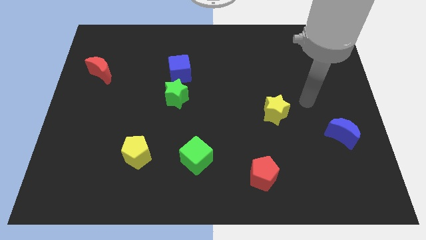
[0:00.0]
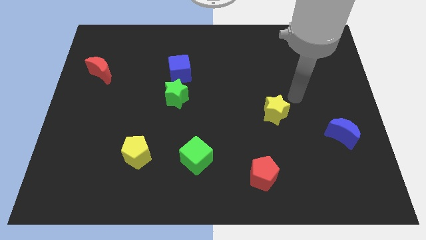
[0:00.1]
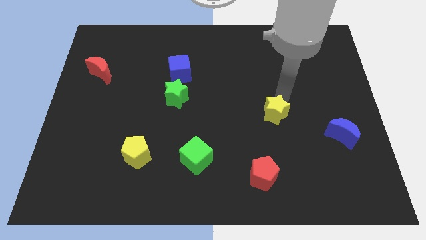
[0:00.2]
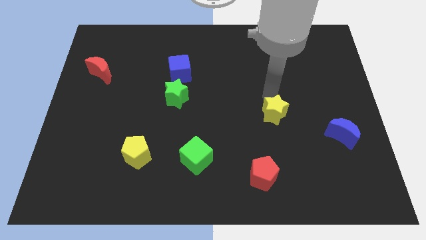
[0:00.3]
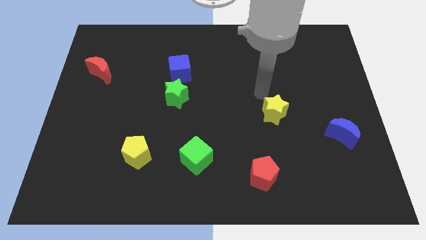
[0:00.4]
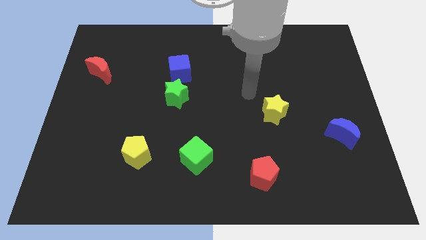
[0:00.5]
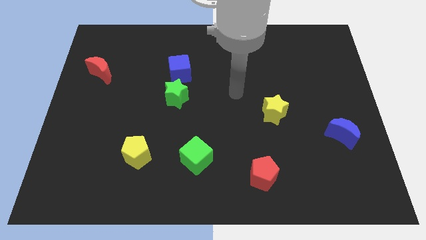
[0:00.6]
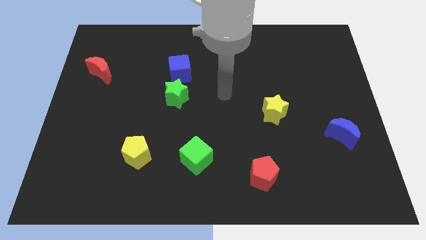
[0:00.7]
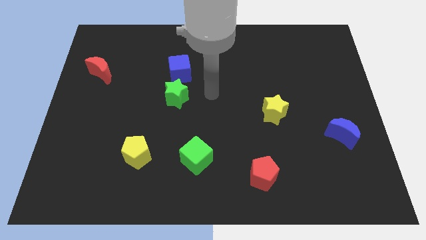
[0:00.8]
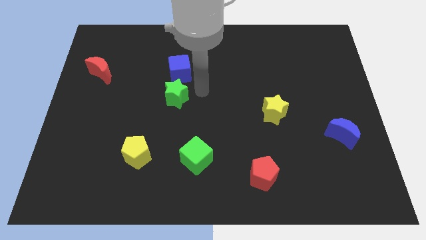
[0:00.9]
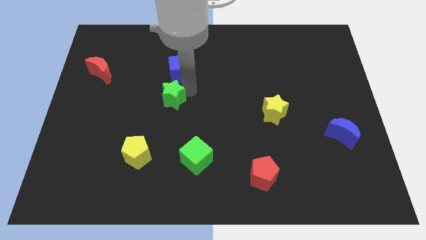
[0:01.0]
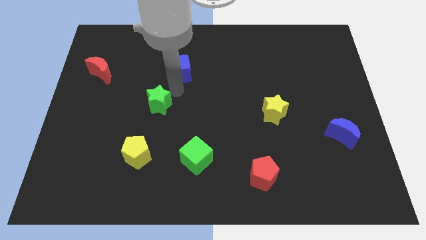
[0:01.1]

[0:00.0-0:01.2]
move the blue cube away from the green star

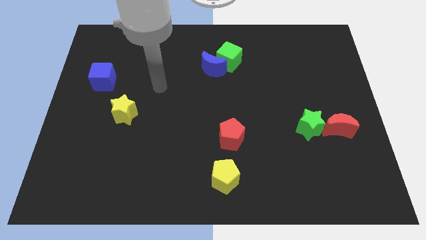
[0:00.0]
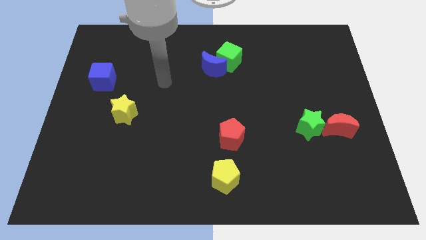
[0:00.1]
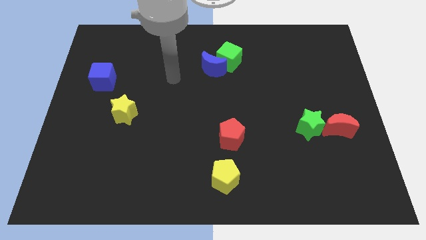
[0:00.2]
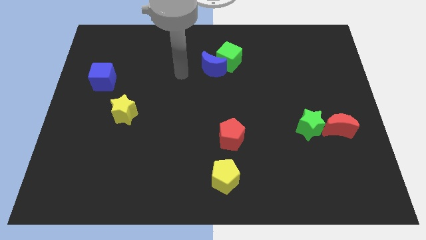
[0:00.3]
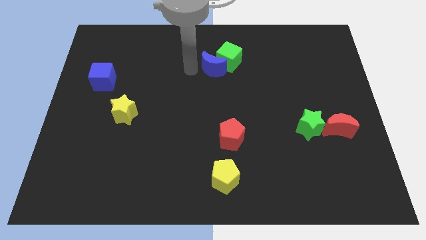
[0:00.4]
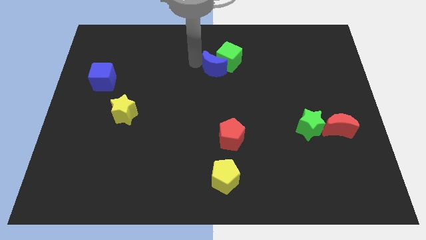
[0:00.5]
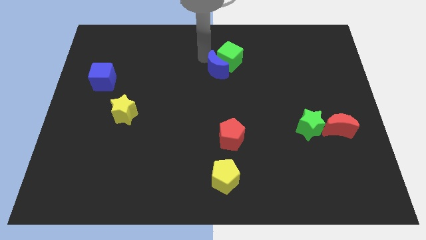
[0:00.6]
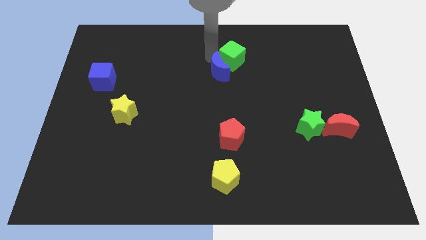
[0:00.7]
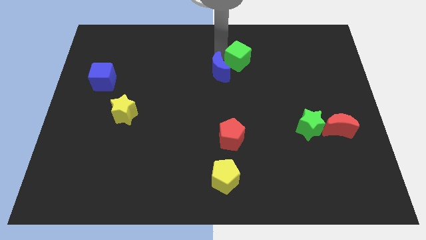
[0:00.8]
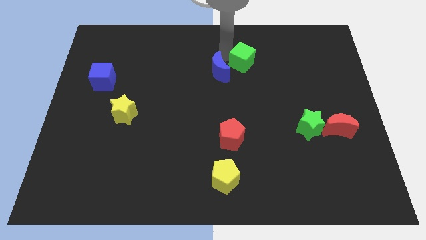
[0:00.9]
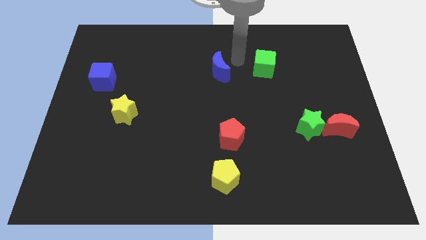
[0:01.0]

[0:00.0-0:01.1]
separate the blue moon from the green cube

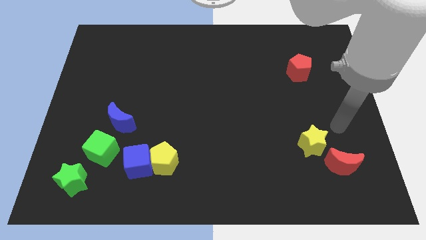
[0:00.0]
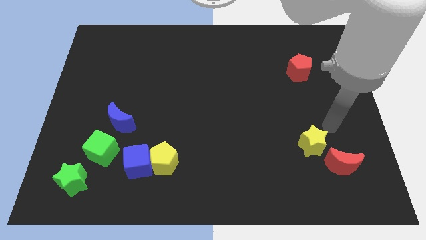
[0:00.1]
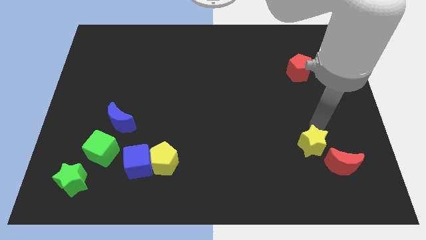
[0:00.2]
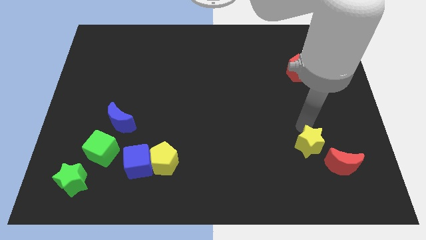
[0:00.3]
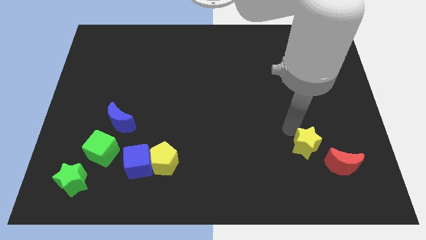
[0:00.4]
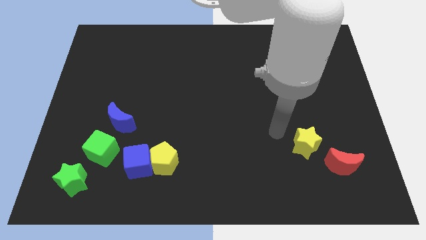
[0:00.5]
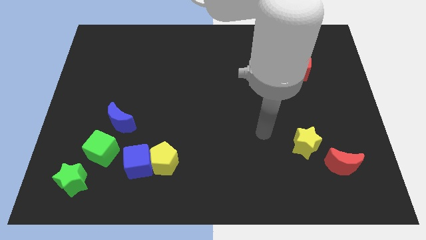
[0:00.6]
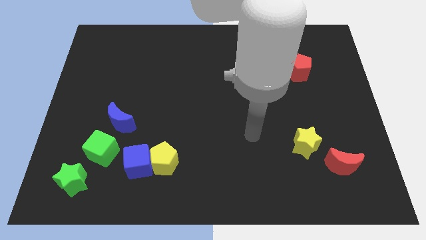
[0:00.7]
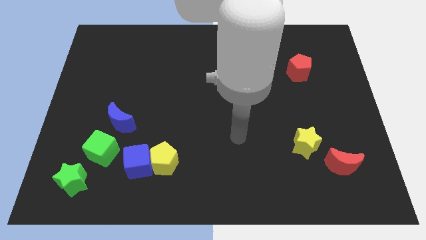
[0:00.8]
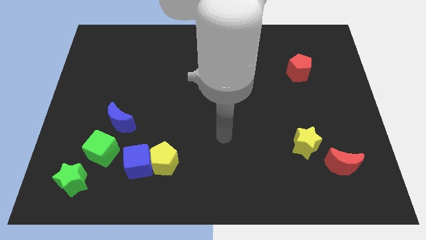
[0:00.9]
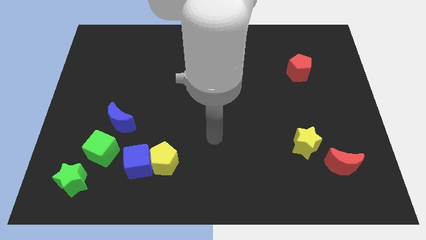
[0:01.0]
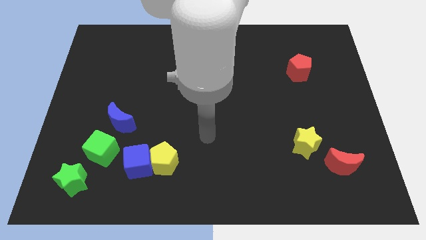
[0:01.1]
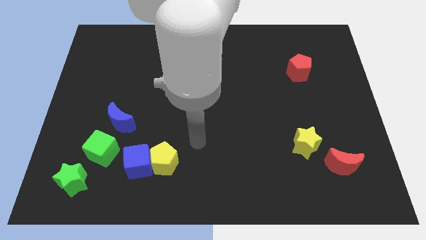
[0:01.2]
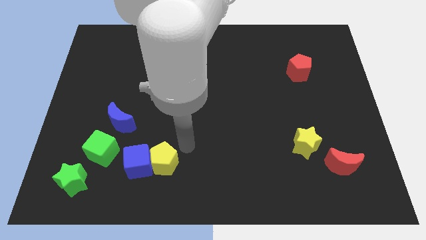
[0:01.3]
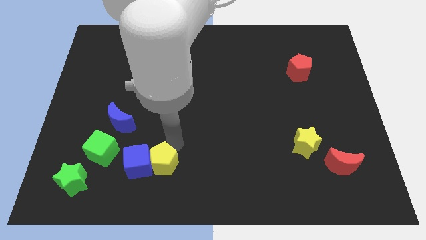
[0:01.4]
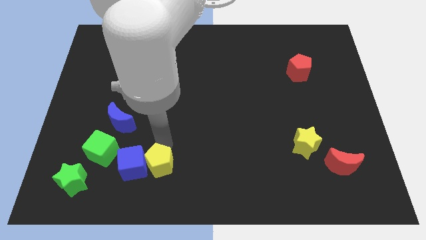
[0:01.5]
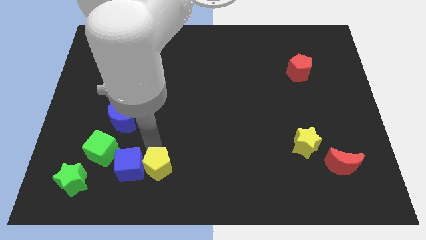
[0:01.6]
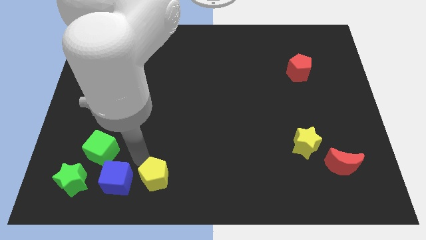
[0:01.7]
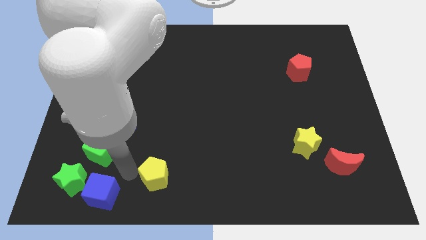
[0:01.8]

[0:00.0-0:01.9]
pull the yellow pentagon apart from the blue cube

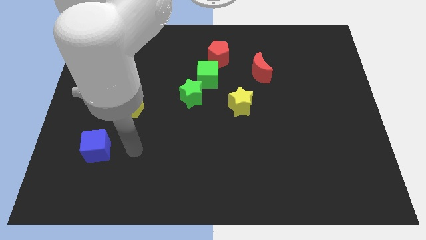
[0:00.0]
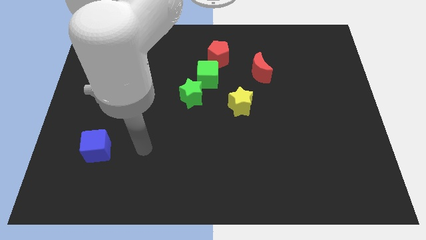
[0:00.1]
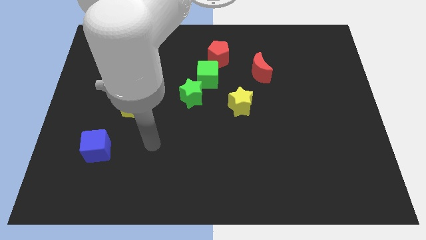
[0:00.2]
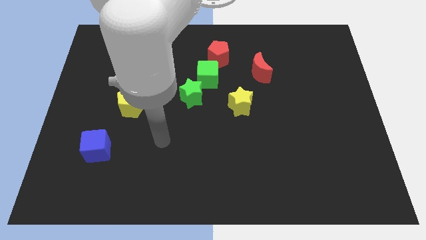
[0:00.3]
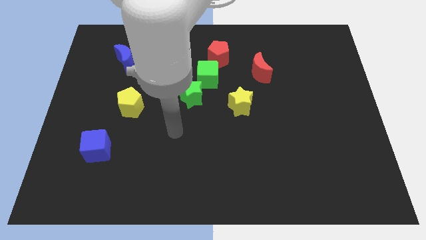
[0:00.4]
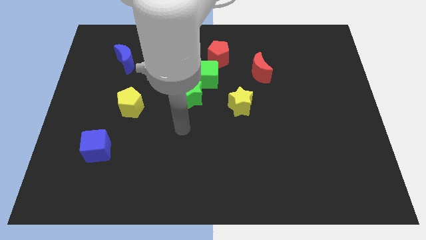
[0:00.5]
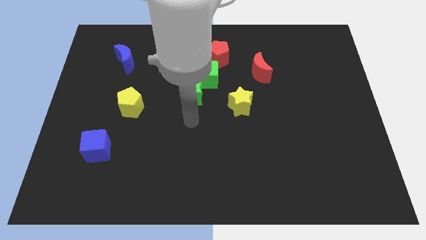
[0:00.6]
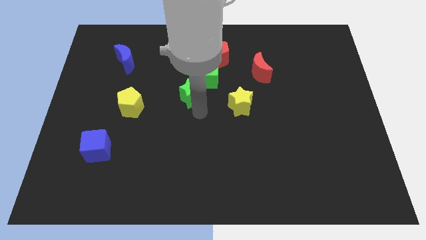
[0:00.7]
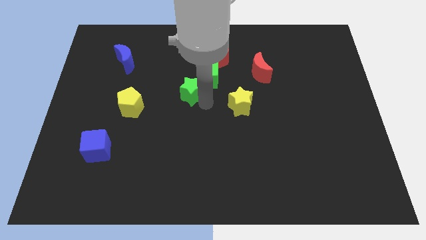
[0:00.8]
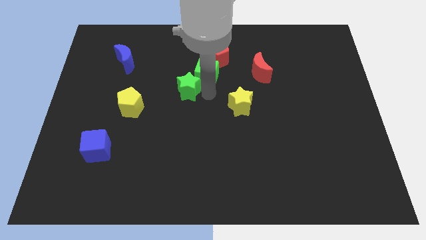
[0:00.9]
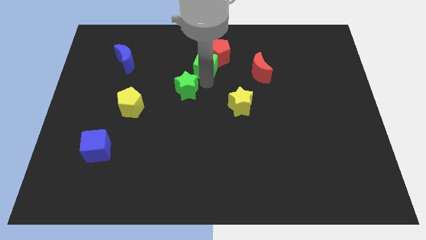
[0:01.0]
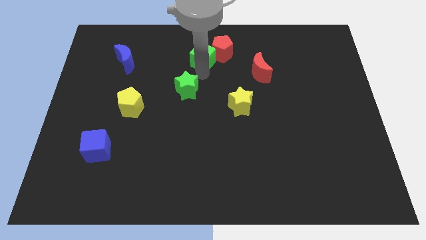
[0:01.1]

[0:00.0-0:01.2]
move the green star away from the green cube

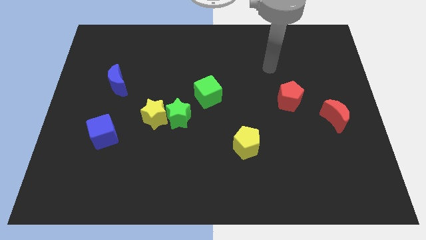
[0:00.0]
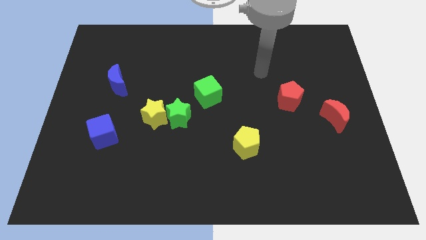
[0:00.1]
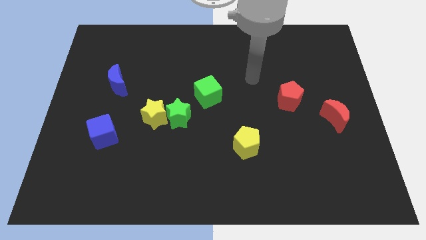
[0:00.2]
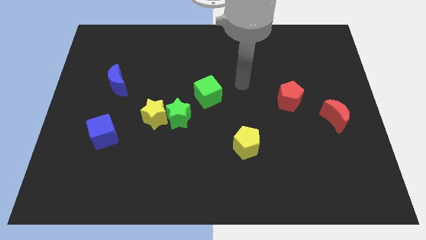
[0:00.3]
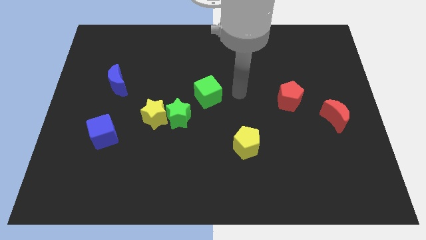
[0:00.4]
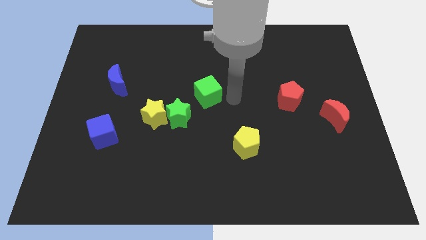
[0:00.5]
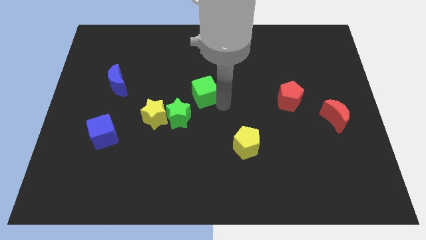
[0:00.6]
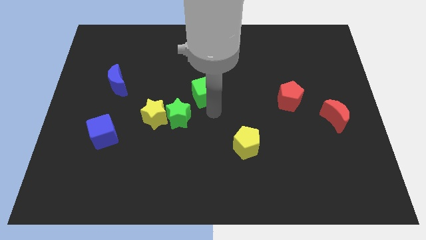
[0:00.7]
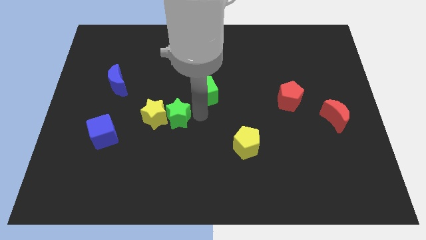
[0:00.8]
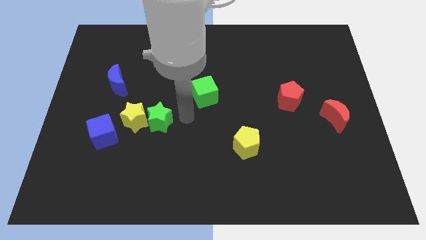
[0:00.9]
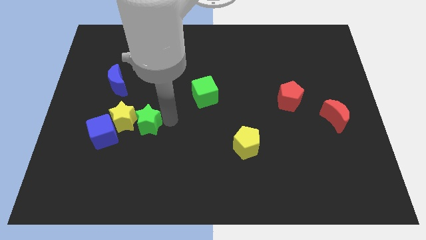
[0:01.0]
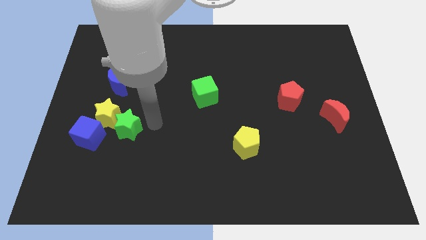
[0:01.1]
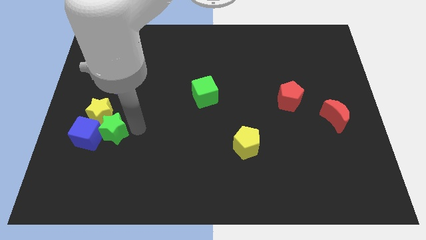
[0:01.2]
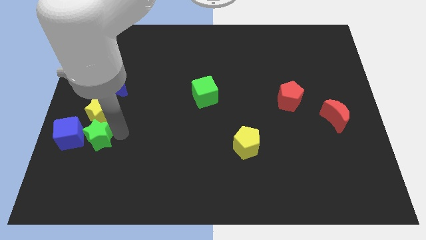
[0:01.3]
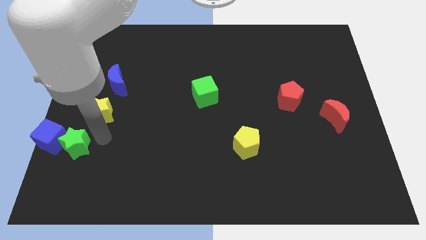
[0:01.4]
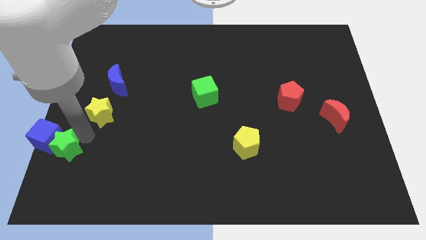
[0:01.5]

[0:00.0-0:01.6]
move the yellow star away from the green star

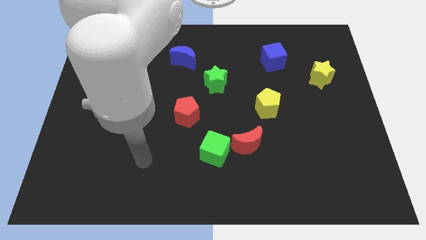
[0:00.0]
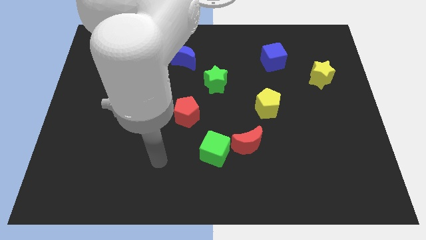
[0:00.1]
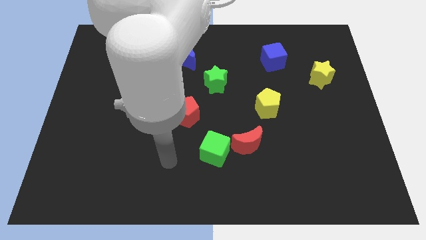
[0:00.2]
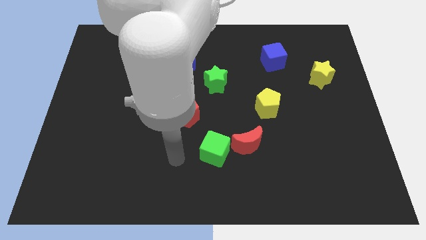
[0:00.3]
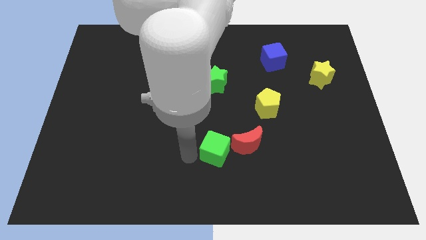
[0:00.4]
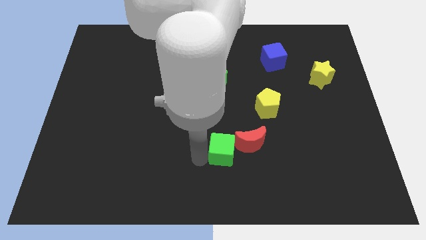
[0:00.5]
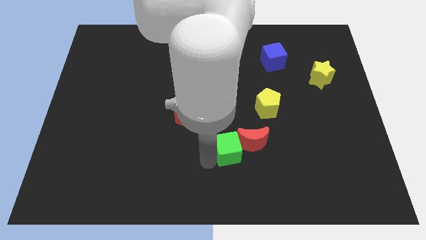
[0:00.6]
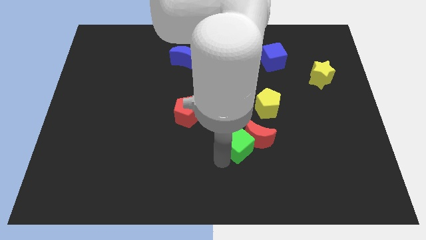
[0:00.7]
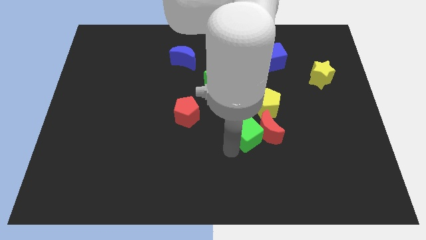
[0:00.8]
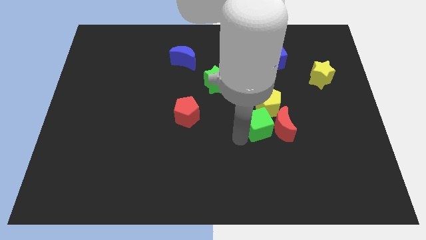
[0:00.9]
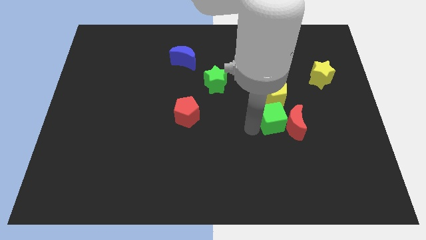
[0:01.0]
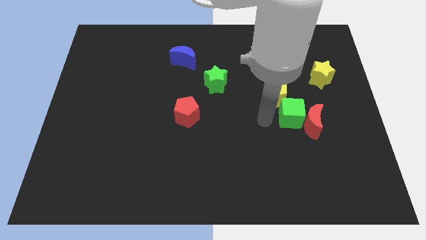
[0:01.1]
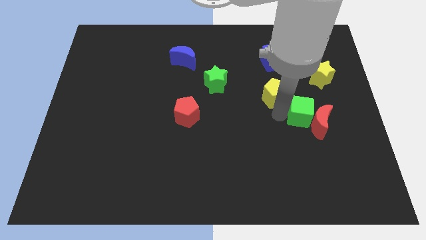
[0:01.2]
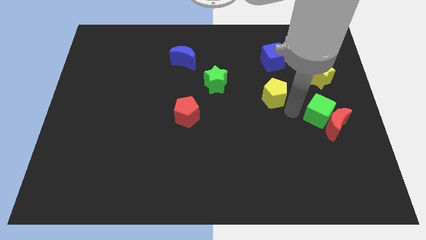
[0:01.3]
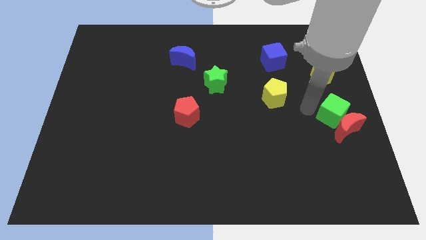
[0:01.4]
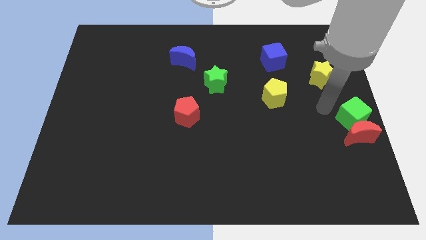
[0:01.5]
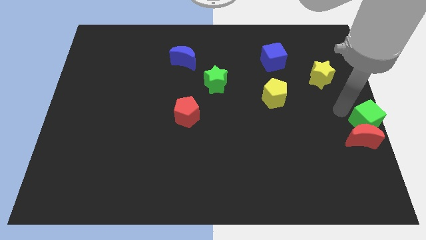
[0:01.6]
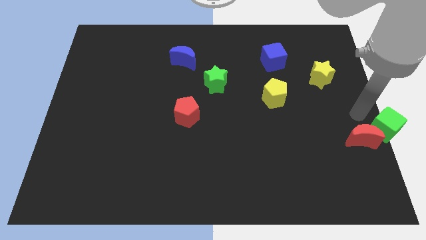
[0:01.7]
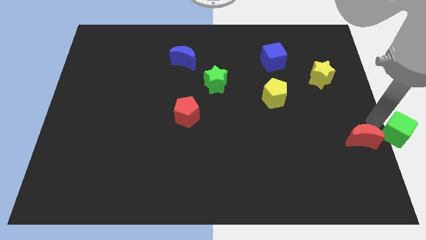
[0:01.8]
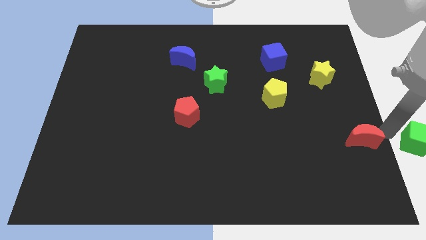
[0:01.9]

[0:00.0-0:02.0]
pull the red moon apart from the green cube

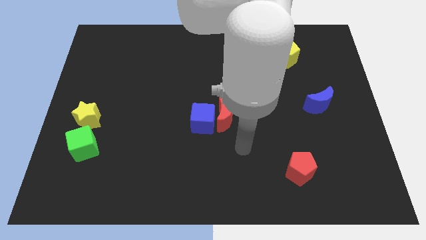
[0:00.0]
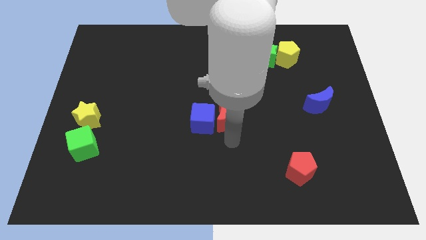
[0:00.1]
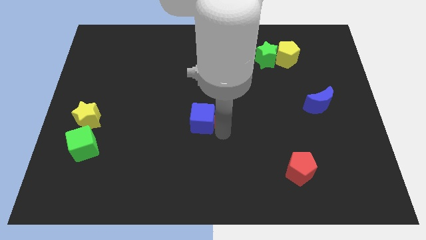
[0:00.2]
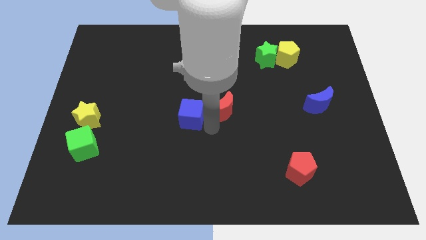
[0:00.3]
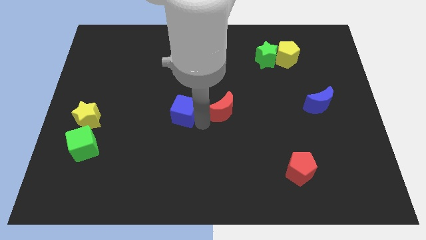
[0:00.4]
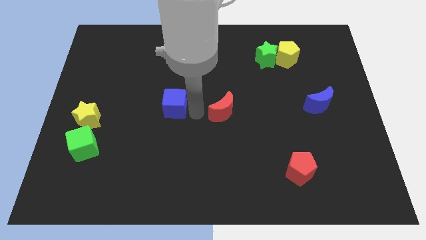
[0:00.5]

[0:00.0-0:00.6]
pull the red moon apart from the blue cube
